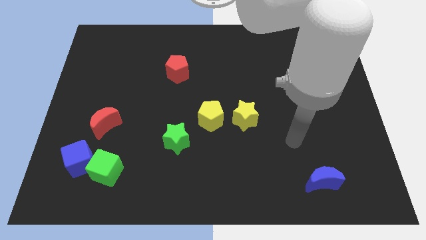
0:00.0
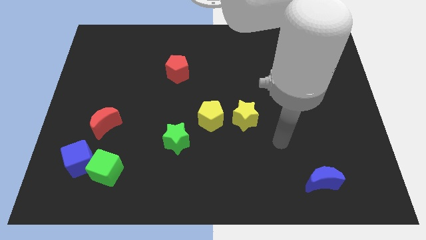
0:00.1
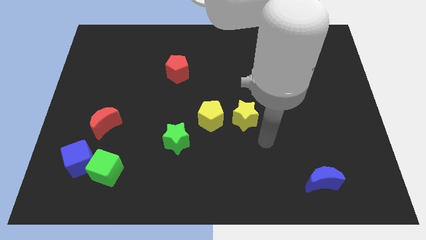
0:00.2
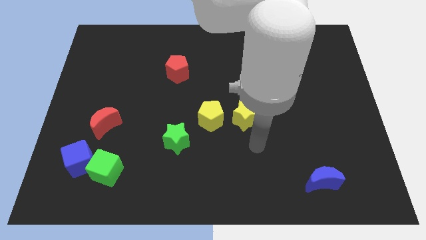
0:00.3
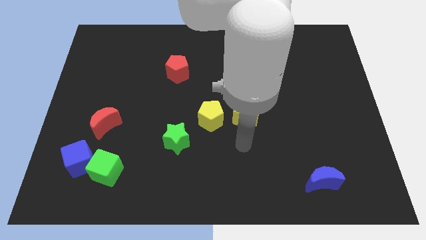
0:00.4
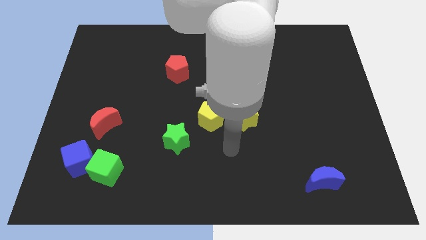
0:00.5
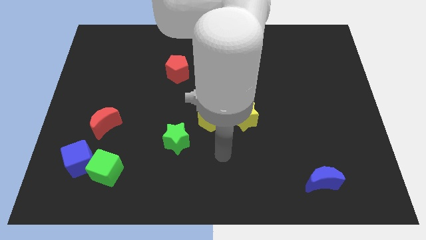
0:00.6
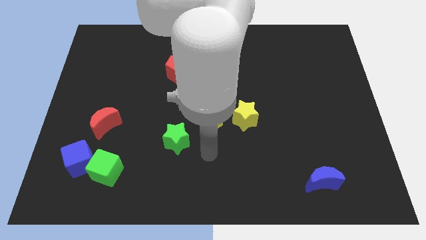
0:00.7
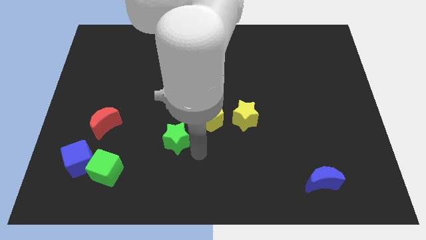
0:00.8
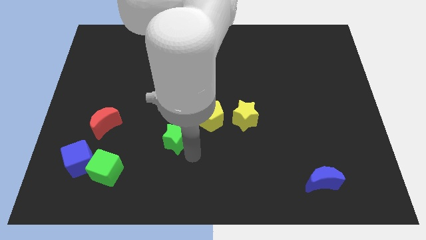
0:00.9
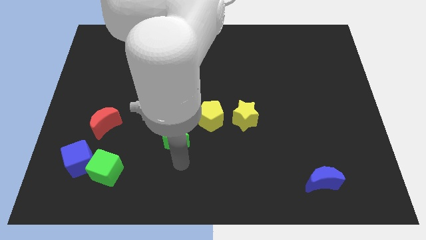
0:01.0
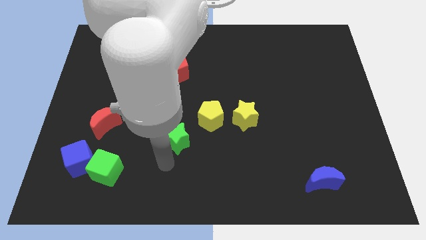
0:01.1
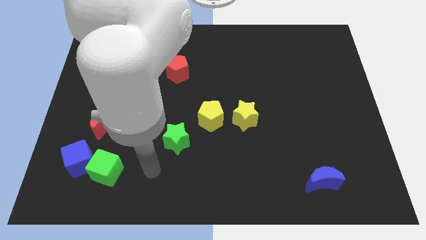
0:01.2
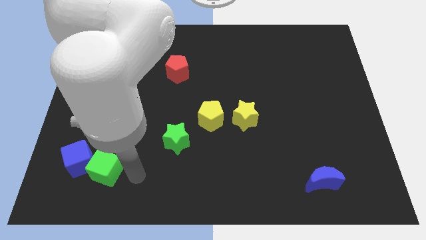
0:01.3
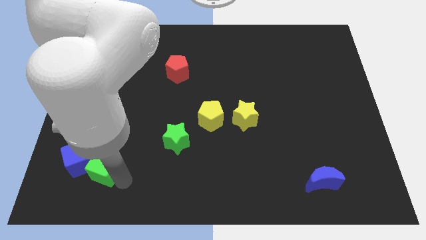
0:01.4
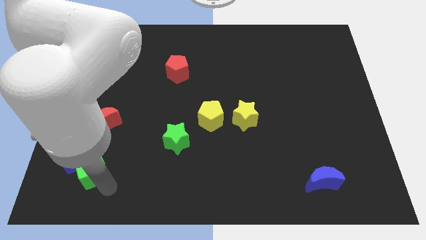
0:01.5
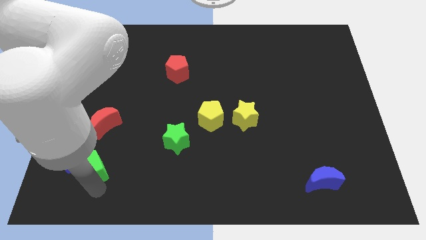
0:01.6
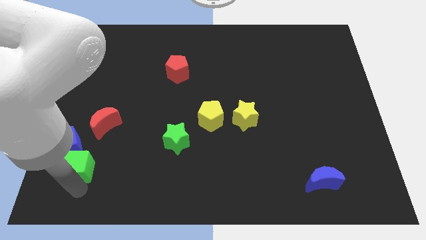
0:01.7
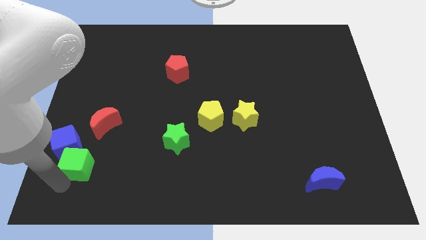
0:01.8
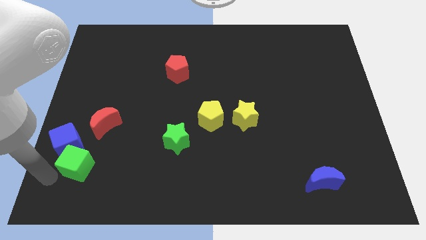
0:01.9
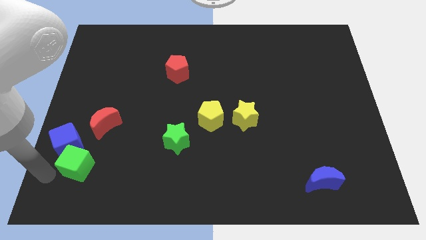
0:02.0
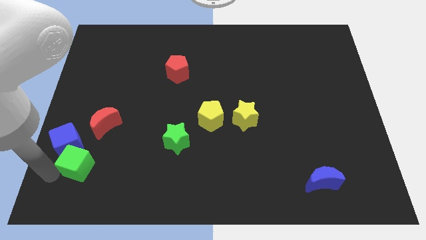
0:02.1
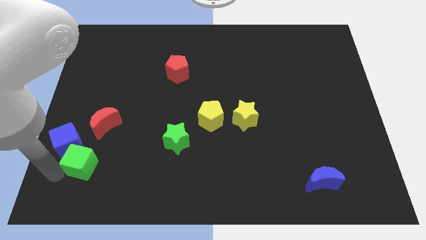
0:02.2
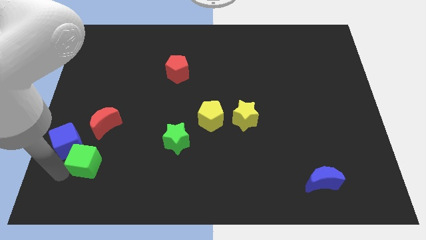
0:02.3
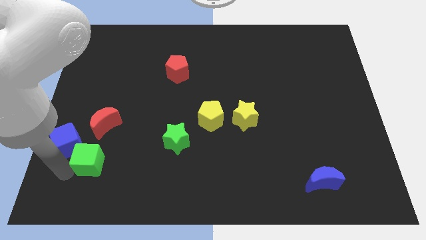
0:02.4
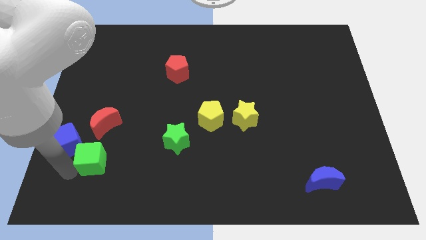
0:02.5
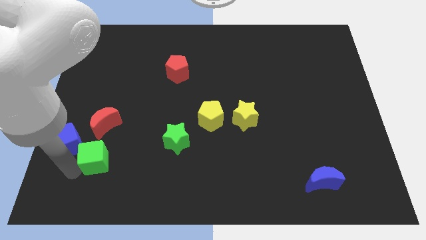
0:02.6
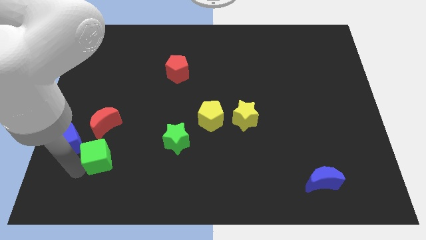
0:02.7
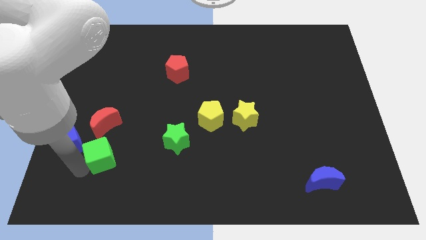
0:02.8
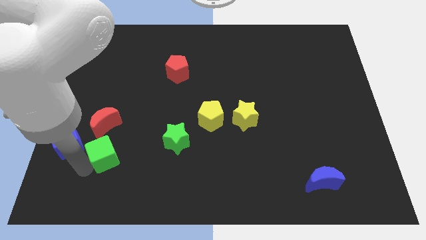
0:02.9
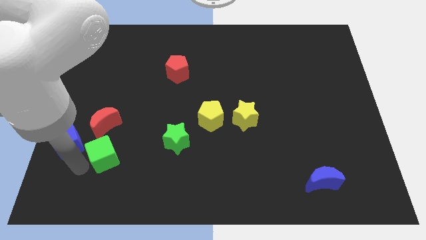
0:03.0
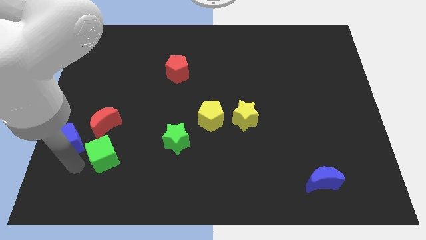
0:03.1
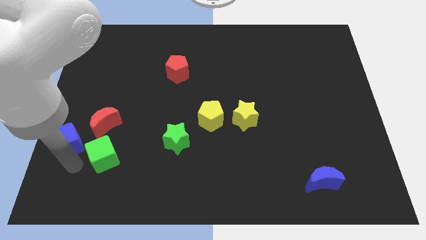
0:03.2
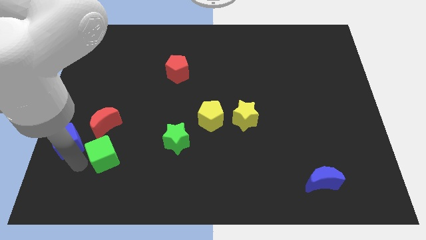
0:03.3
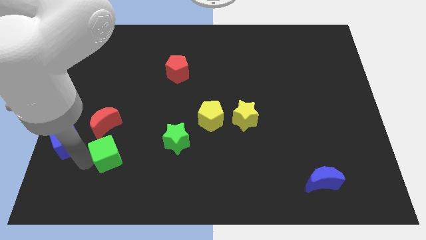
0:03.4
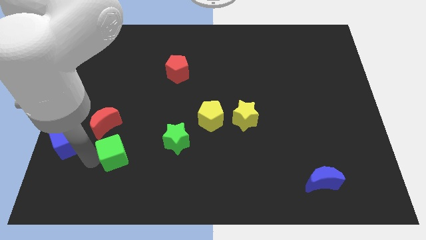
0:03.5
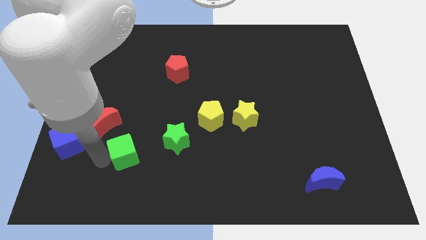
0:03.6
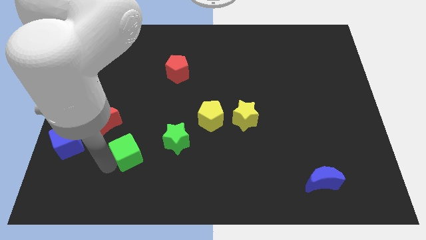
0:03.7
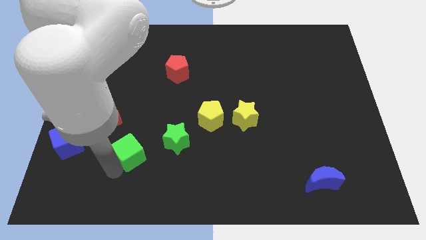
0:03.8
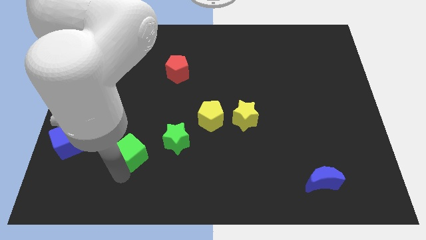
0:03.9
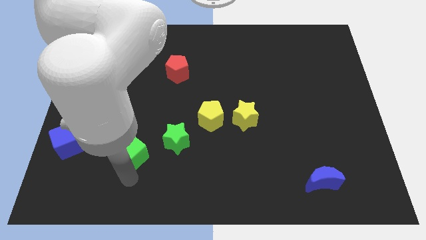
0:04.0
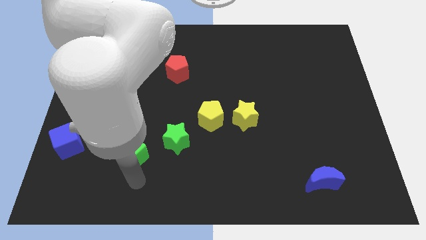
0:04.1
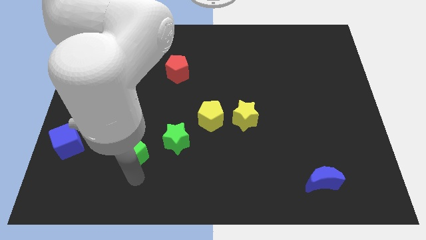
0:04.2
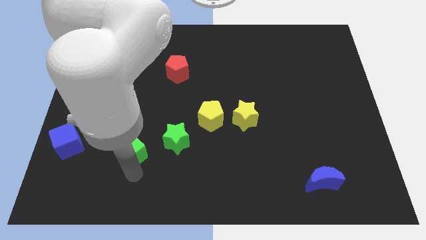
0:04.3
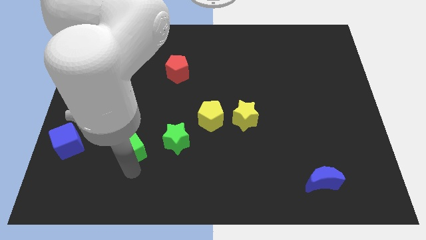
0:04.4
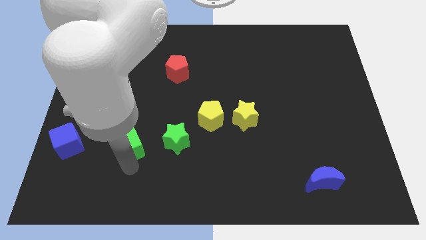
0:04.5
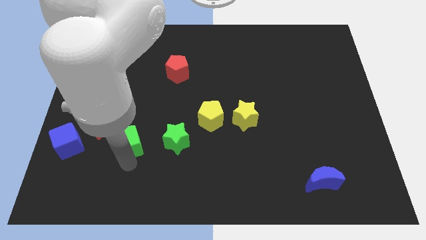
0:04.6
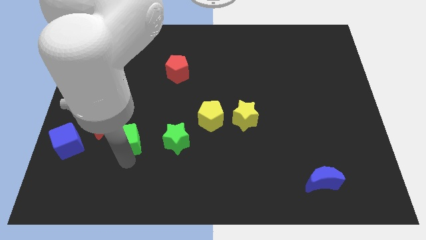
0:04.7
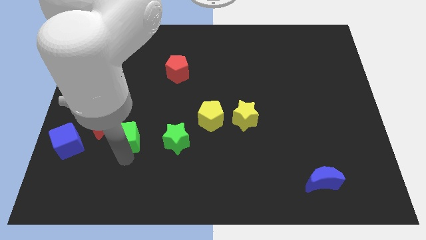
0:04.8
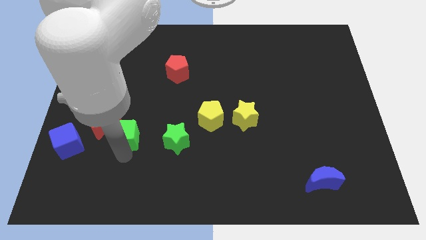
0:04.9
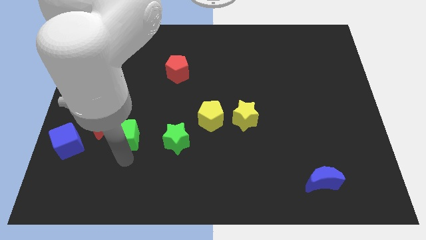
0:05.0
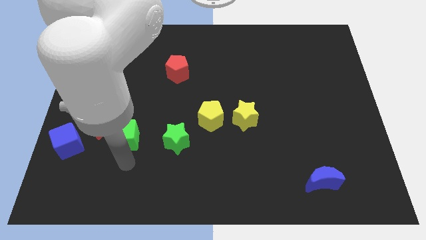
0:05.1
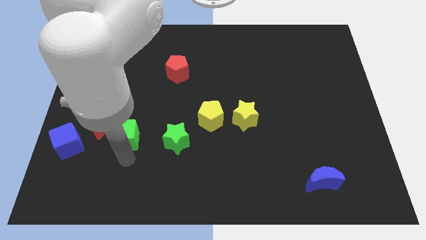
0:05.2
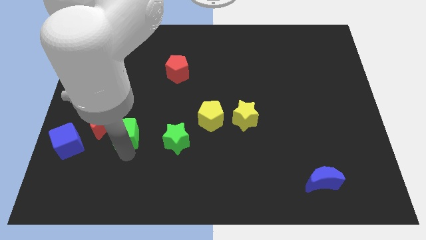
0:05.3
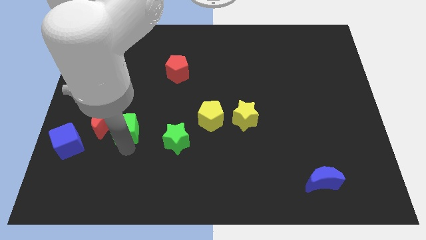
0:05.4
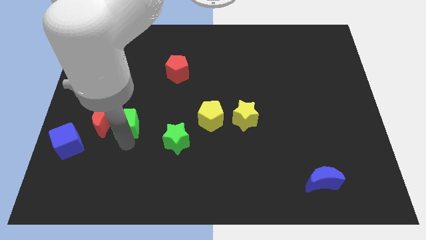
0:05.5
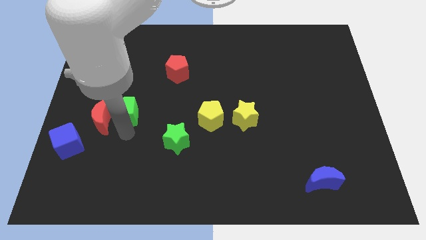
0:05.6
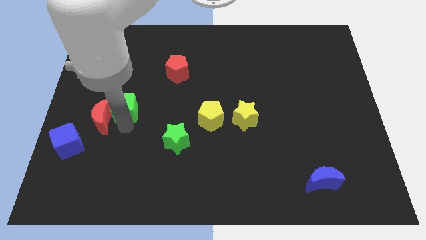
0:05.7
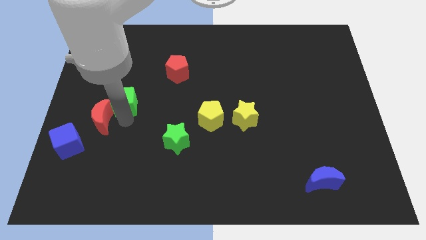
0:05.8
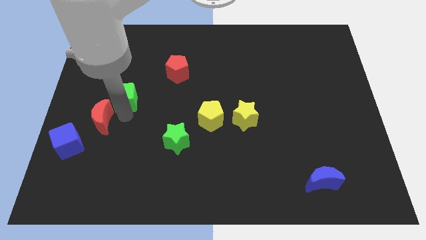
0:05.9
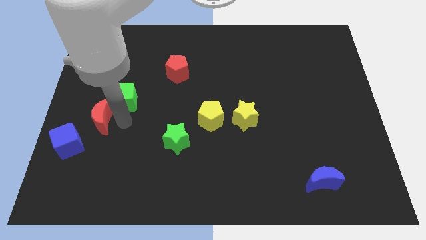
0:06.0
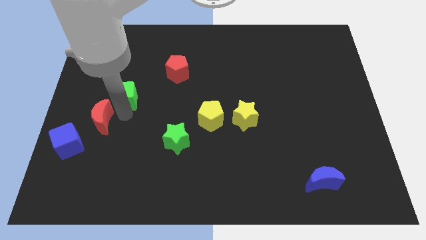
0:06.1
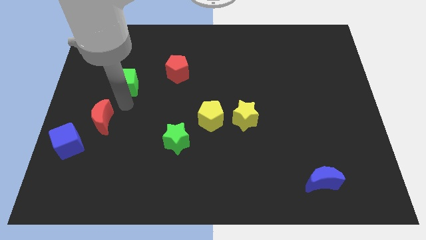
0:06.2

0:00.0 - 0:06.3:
slide the green cube upwards

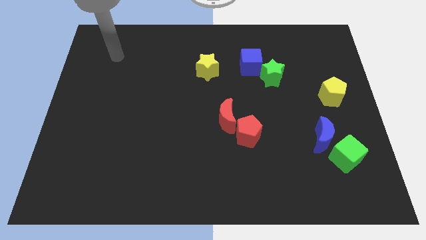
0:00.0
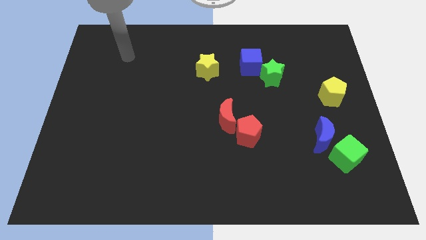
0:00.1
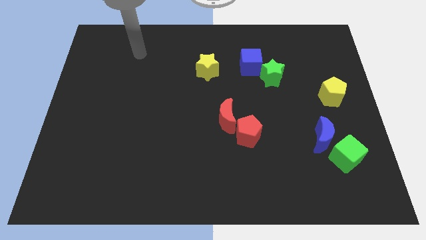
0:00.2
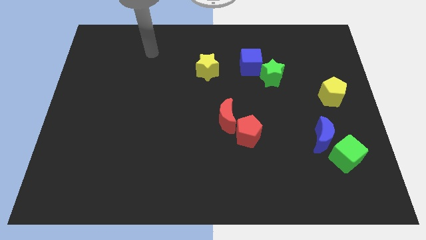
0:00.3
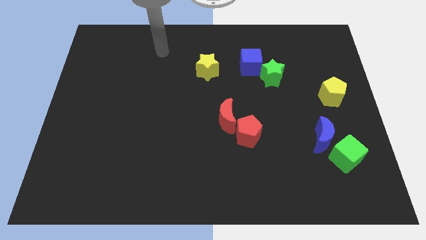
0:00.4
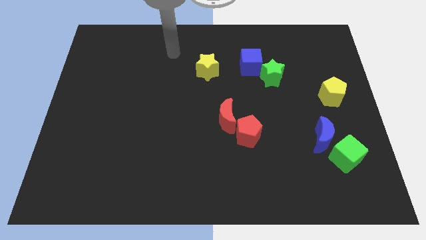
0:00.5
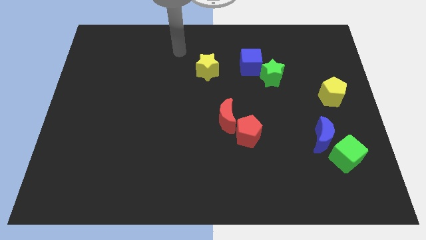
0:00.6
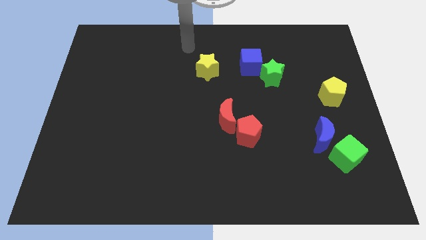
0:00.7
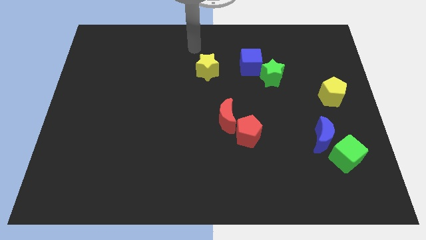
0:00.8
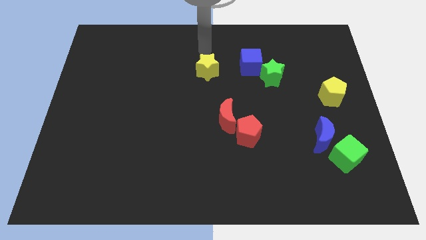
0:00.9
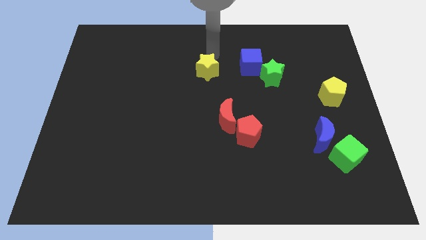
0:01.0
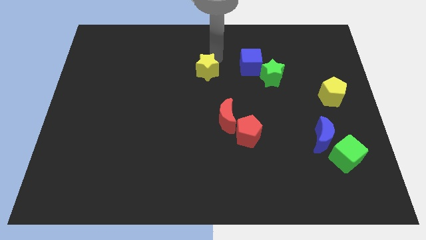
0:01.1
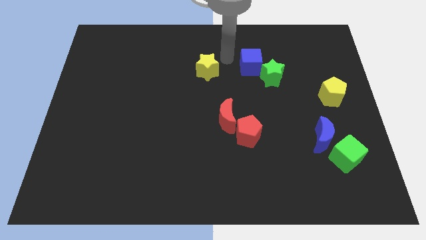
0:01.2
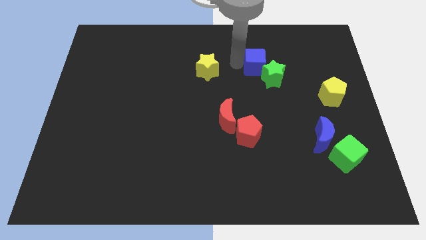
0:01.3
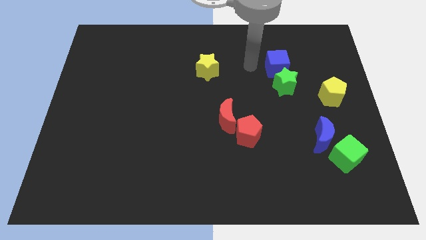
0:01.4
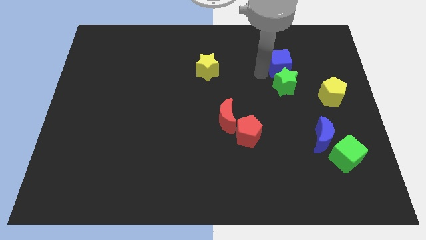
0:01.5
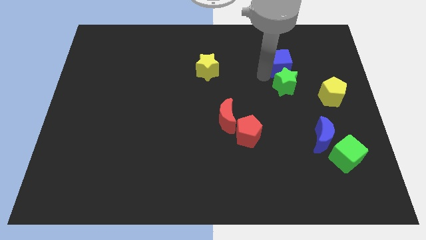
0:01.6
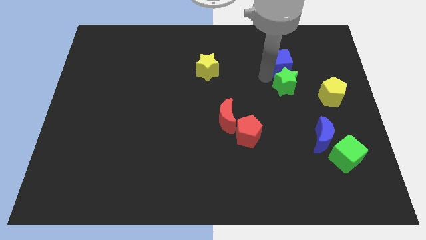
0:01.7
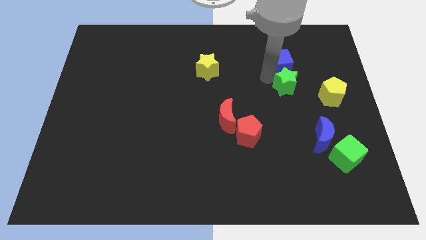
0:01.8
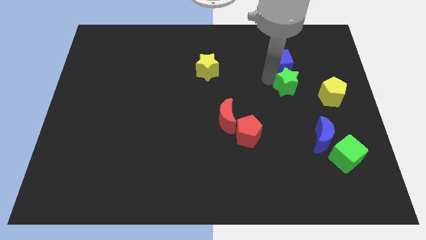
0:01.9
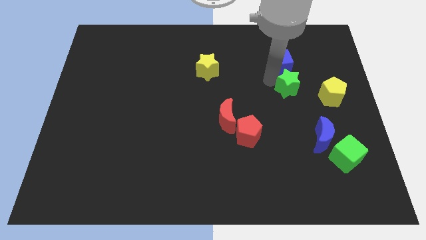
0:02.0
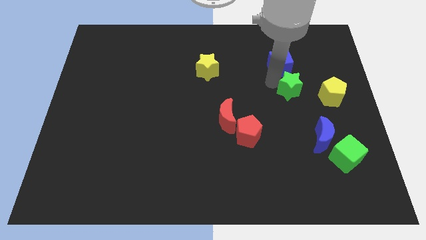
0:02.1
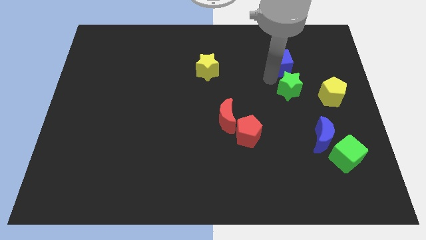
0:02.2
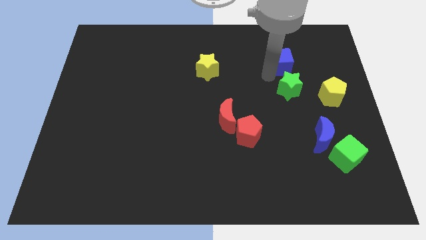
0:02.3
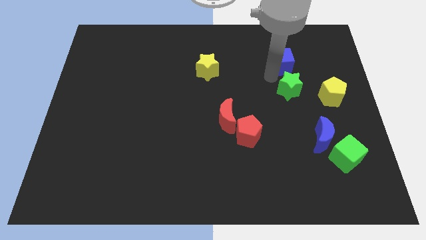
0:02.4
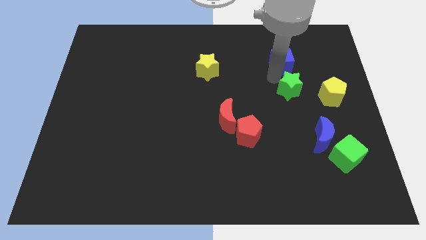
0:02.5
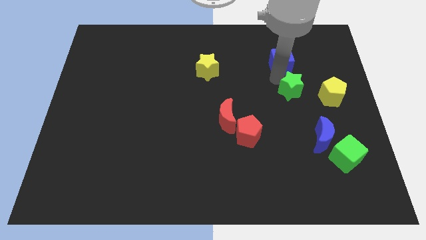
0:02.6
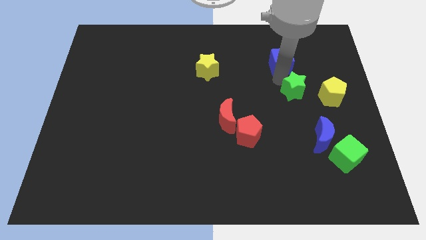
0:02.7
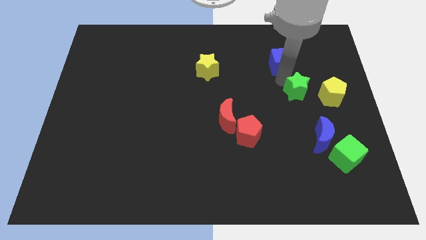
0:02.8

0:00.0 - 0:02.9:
slightly slide the green star diagonally down and right
